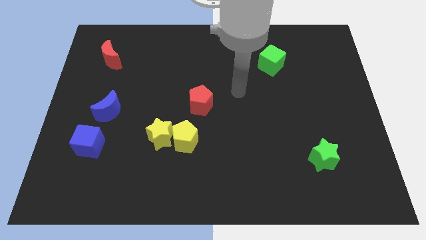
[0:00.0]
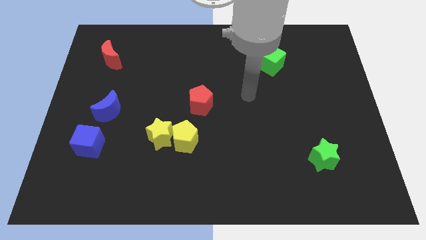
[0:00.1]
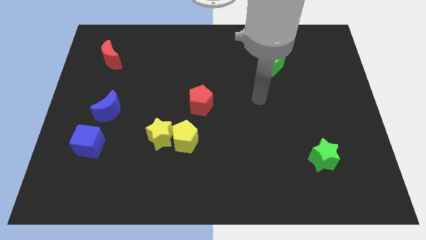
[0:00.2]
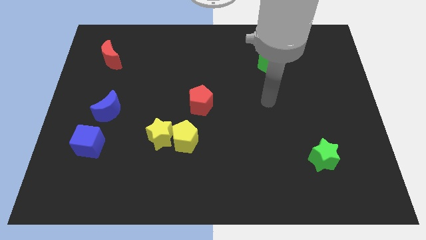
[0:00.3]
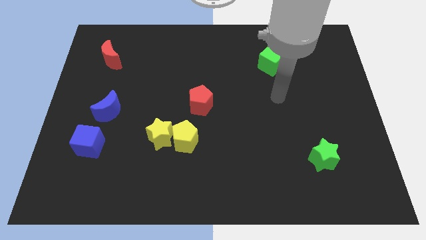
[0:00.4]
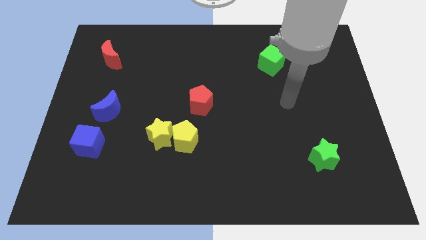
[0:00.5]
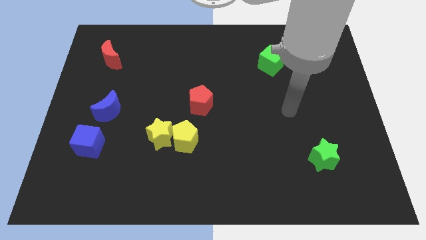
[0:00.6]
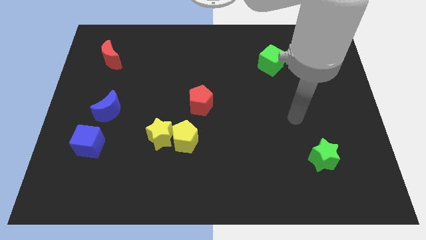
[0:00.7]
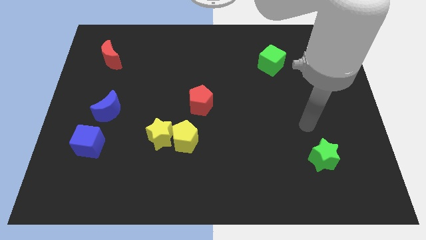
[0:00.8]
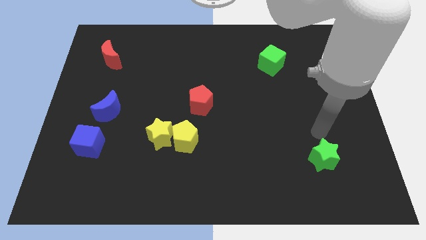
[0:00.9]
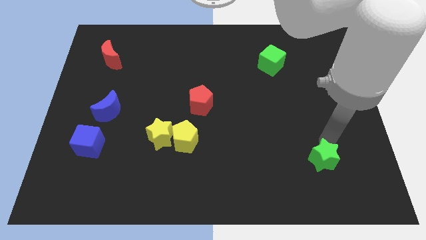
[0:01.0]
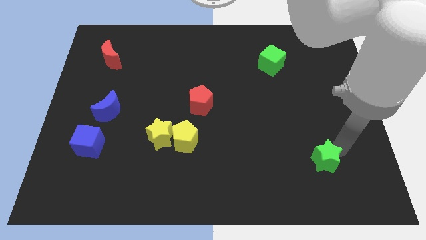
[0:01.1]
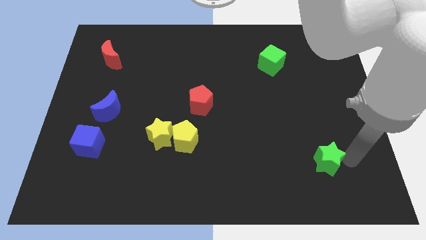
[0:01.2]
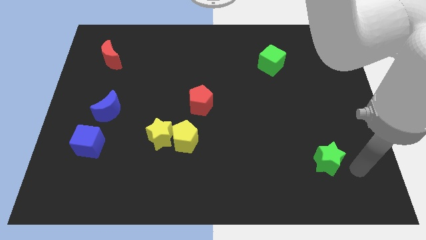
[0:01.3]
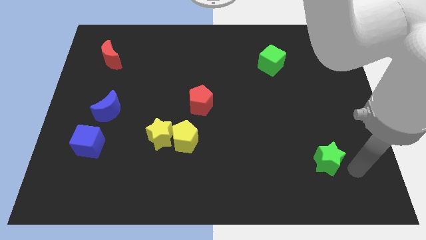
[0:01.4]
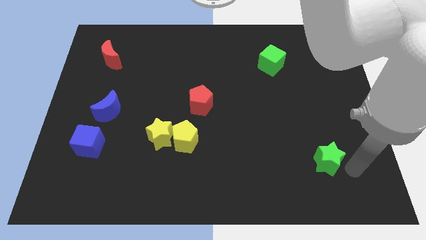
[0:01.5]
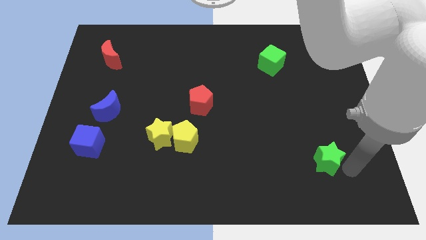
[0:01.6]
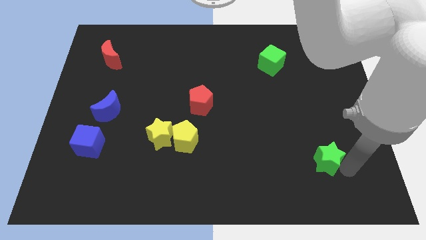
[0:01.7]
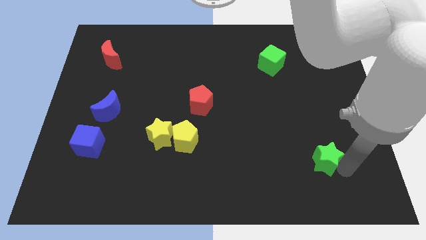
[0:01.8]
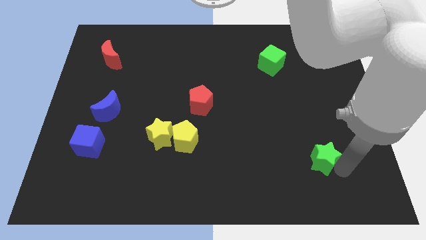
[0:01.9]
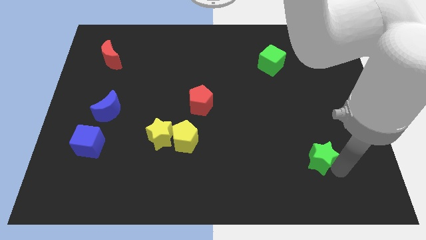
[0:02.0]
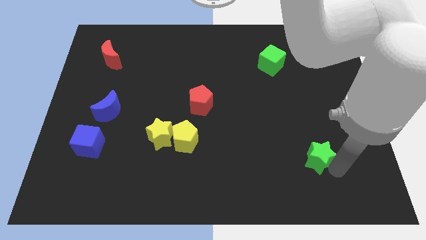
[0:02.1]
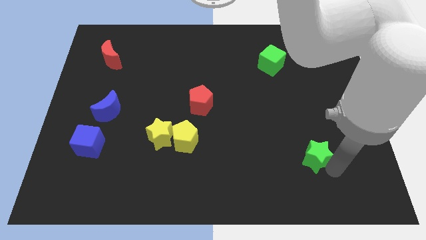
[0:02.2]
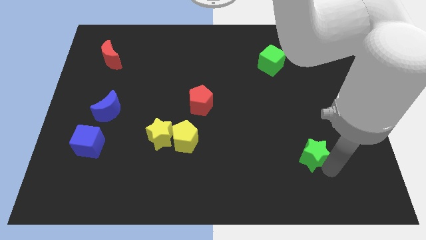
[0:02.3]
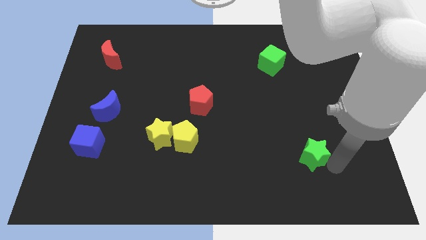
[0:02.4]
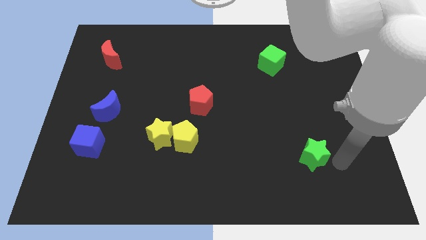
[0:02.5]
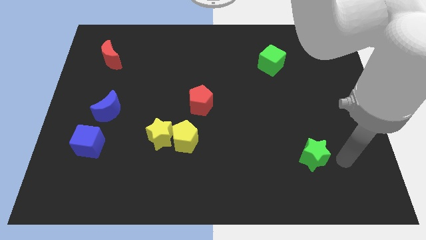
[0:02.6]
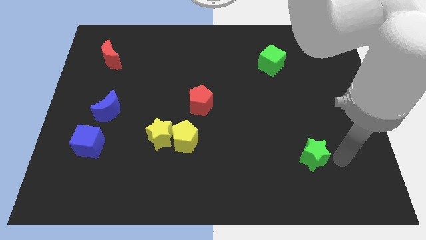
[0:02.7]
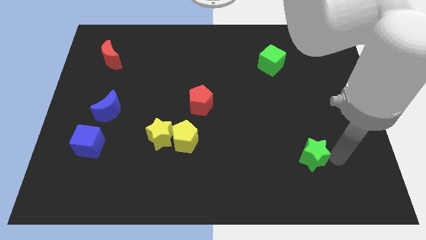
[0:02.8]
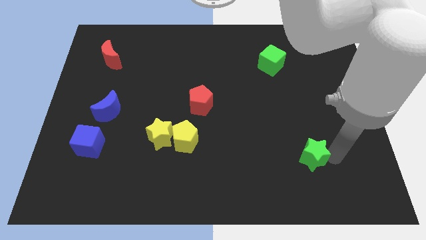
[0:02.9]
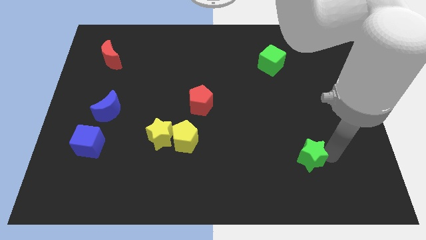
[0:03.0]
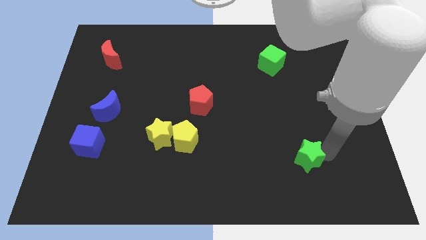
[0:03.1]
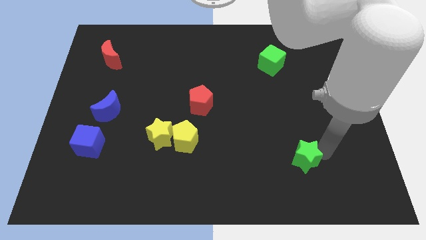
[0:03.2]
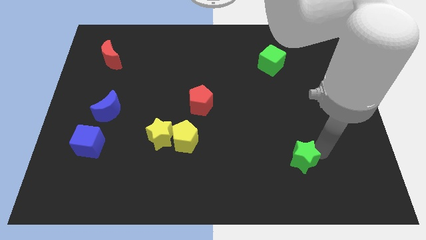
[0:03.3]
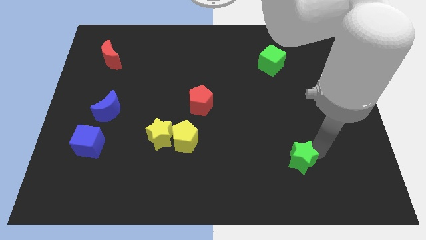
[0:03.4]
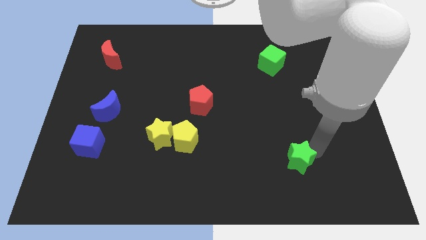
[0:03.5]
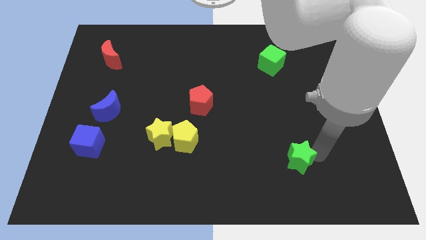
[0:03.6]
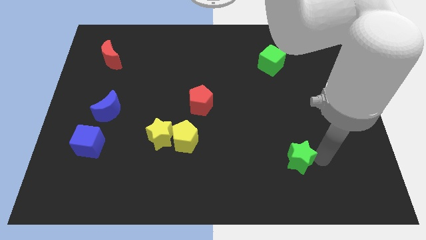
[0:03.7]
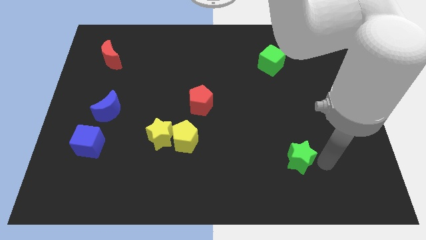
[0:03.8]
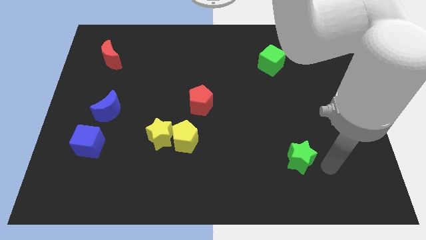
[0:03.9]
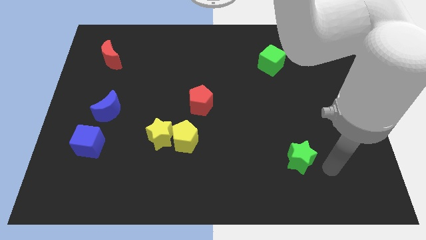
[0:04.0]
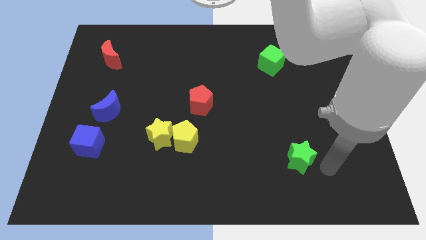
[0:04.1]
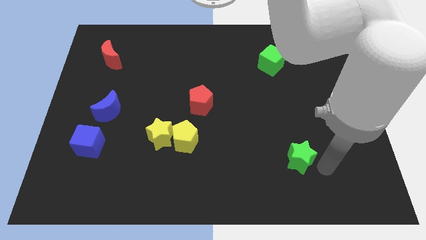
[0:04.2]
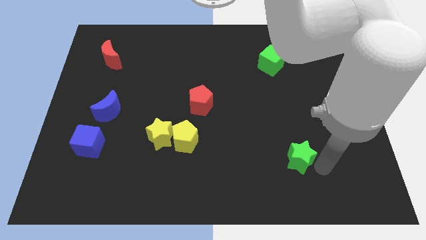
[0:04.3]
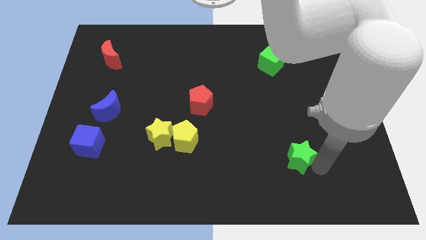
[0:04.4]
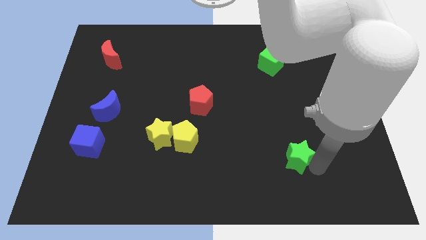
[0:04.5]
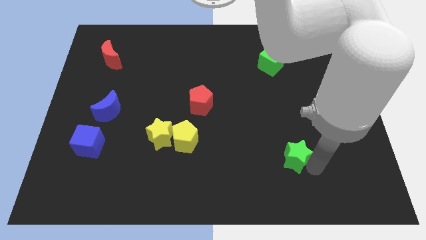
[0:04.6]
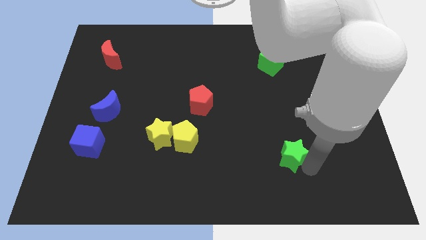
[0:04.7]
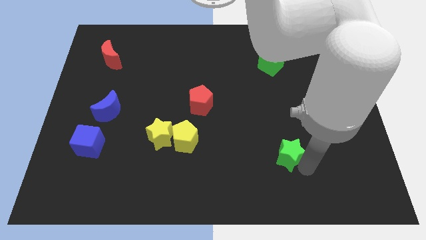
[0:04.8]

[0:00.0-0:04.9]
push the green star left a little bit

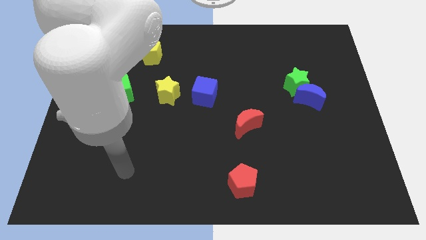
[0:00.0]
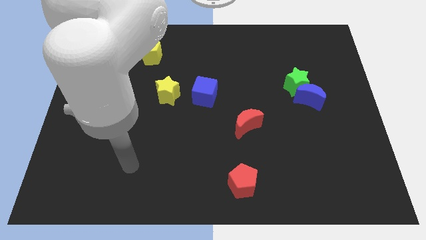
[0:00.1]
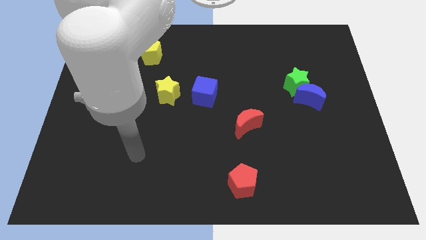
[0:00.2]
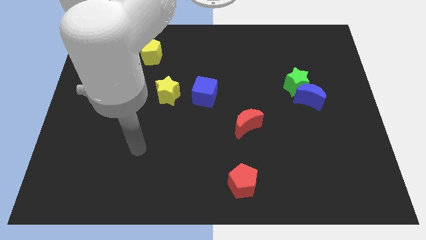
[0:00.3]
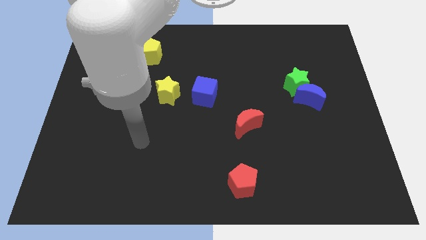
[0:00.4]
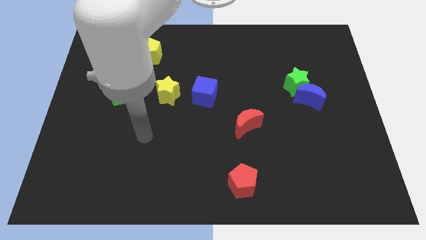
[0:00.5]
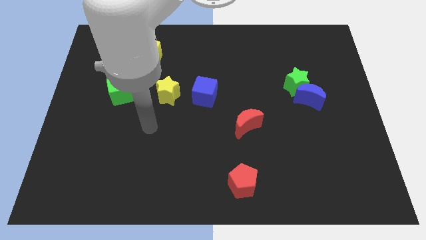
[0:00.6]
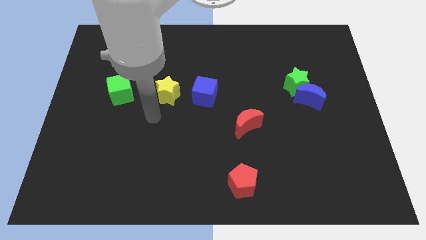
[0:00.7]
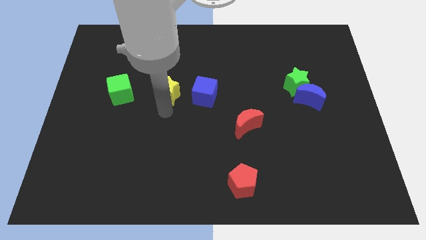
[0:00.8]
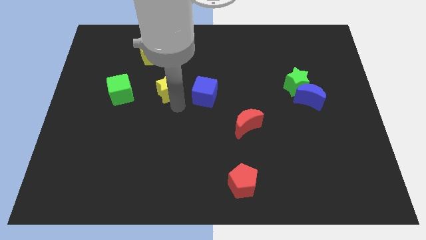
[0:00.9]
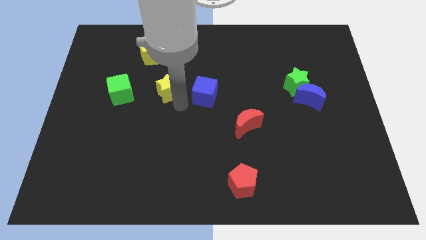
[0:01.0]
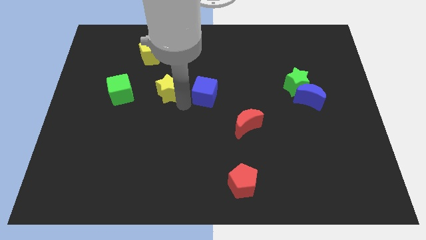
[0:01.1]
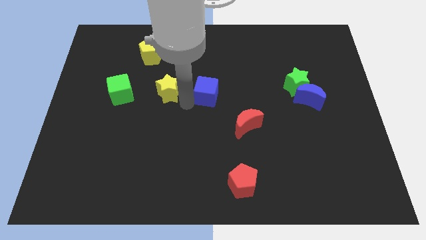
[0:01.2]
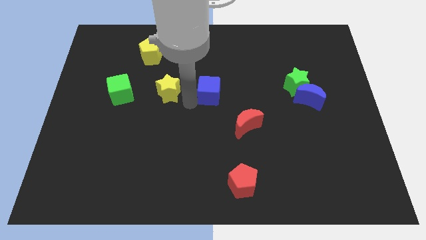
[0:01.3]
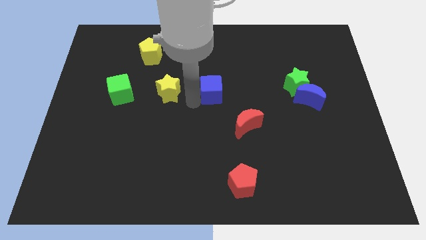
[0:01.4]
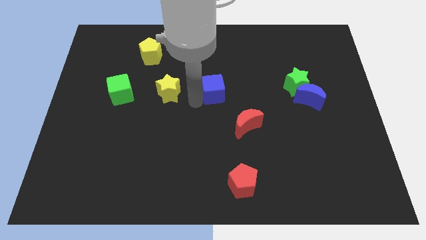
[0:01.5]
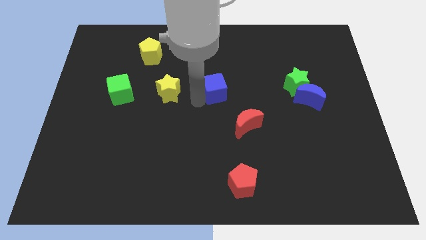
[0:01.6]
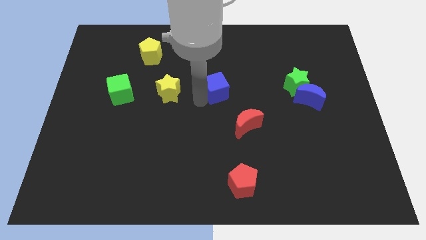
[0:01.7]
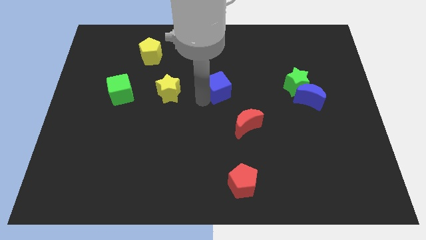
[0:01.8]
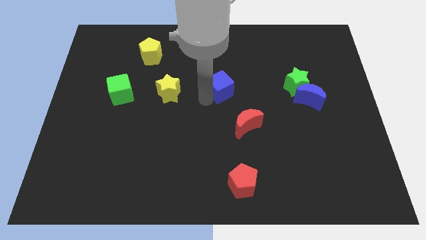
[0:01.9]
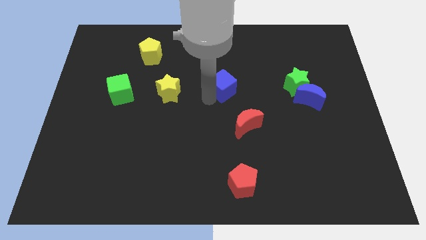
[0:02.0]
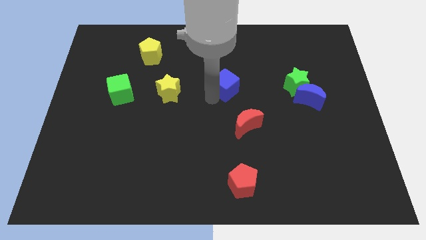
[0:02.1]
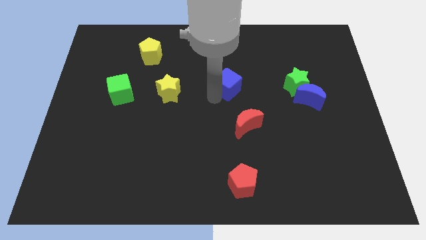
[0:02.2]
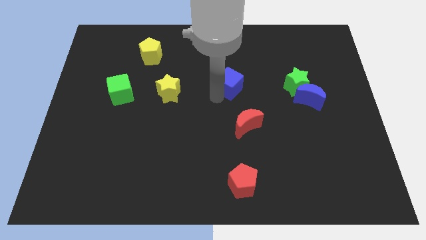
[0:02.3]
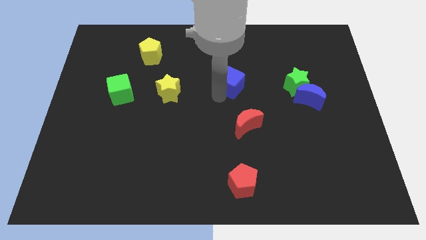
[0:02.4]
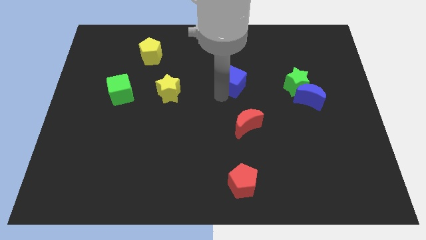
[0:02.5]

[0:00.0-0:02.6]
slide the blue cube diagonally up and to the right a little bit

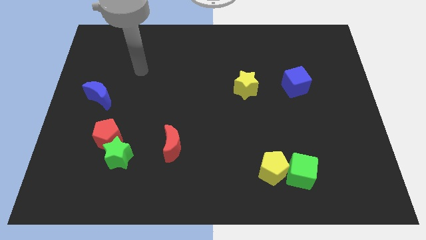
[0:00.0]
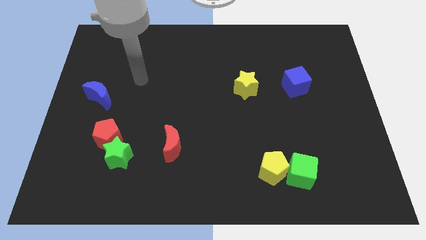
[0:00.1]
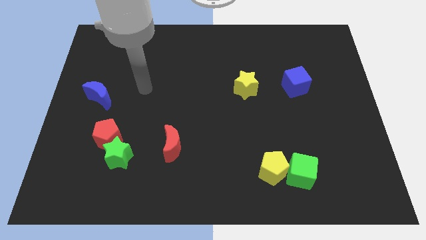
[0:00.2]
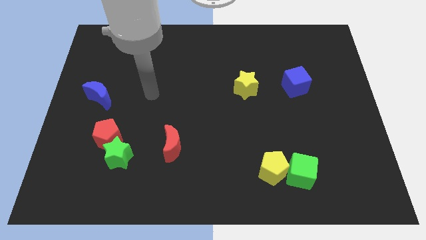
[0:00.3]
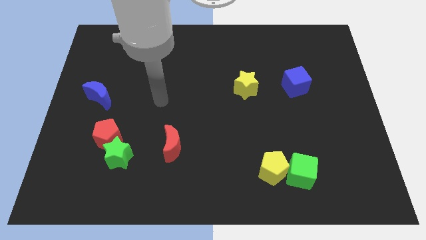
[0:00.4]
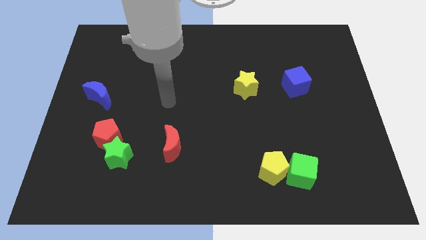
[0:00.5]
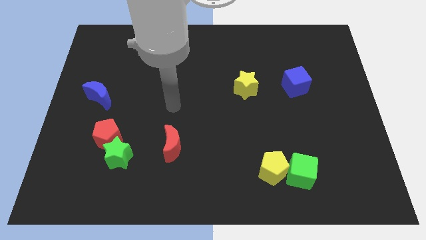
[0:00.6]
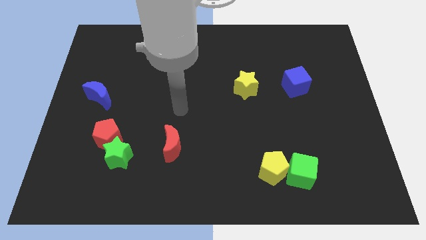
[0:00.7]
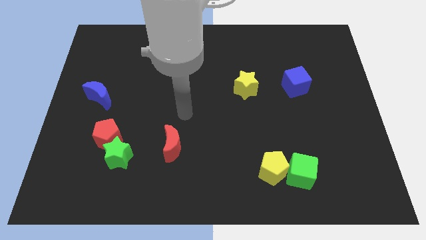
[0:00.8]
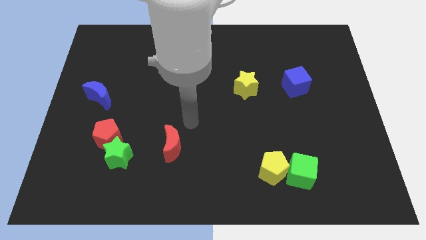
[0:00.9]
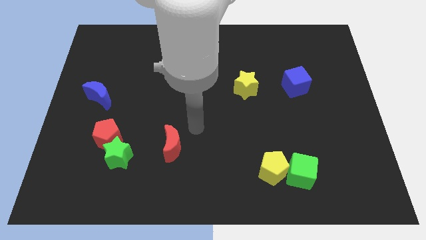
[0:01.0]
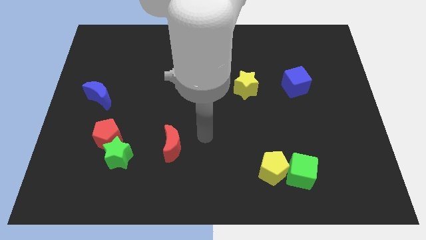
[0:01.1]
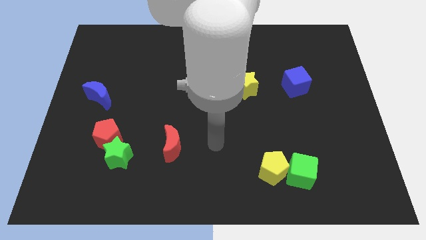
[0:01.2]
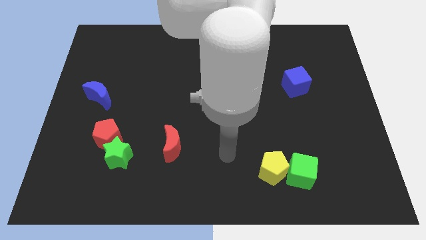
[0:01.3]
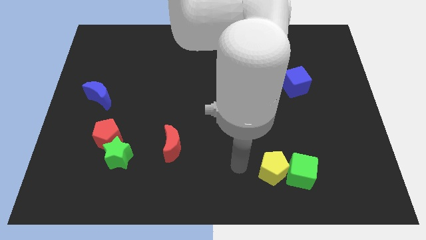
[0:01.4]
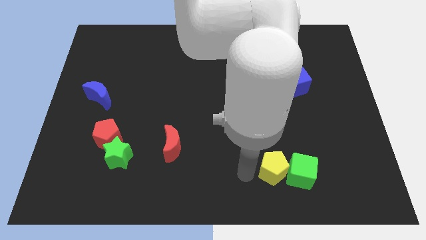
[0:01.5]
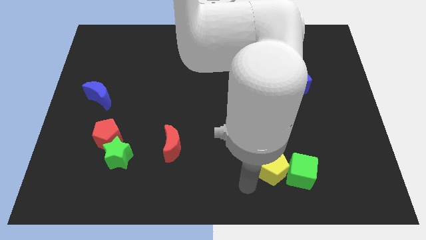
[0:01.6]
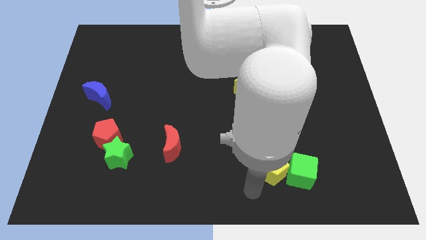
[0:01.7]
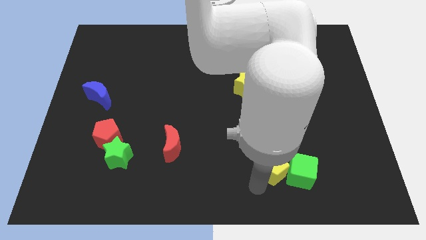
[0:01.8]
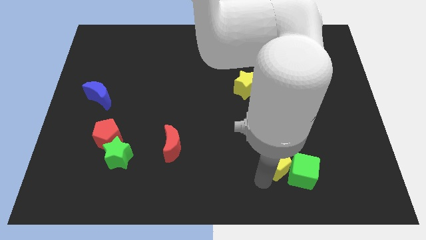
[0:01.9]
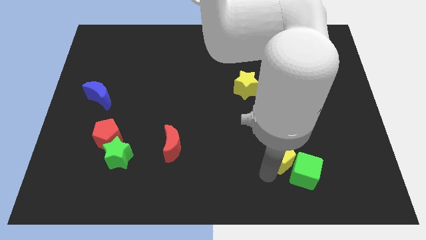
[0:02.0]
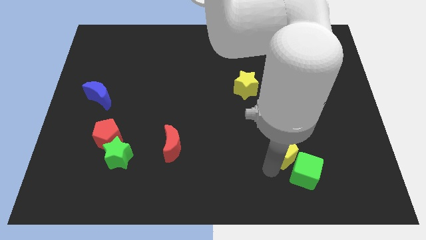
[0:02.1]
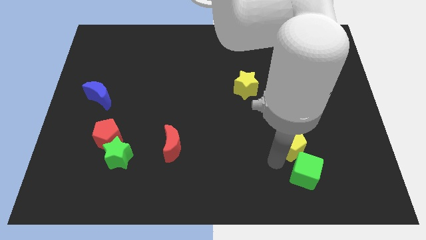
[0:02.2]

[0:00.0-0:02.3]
move the yellow pentagon slightly diagonally upwards and to the right
